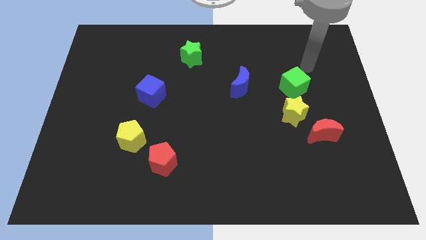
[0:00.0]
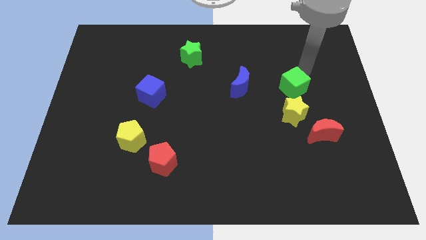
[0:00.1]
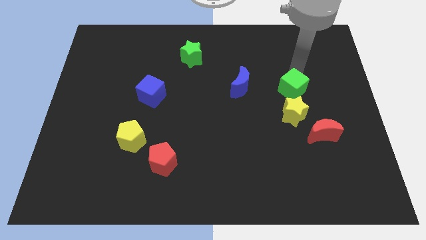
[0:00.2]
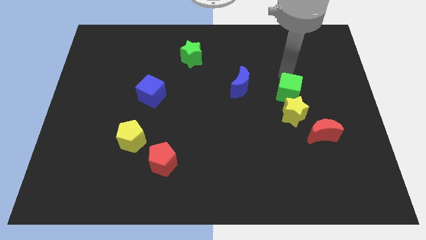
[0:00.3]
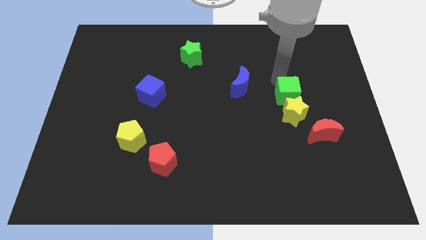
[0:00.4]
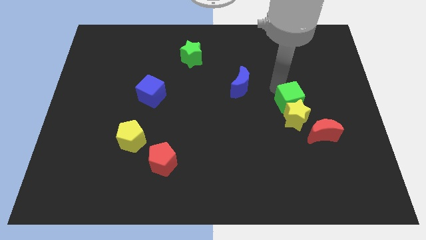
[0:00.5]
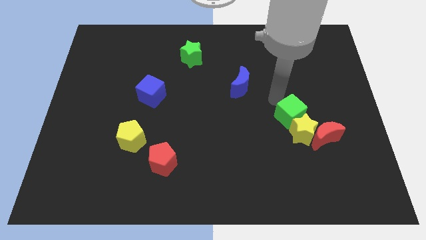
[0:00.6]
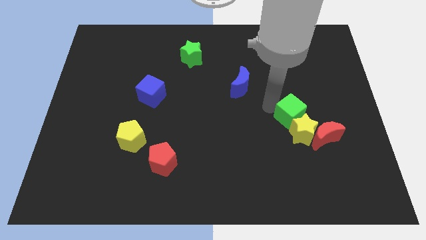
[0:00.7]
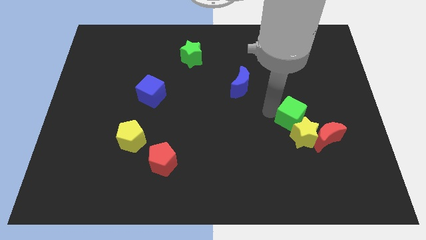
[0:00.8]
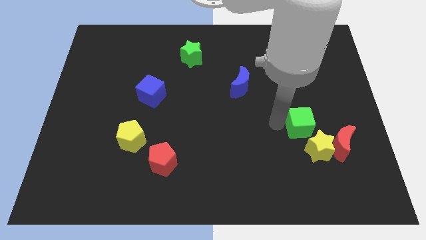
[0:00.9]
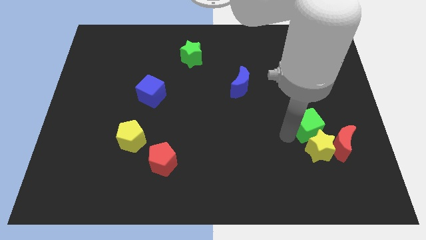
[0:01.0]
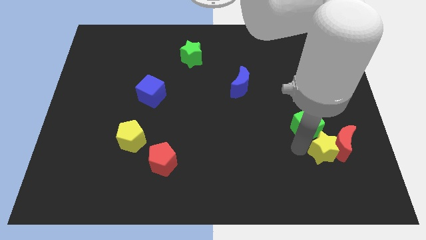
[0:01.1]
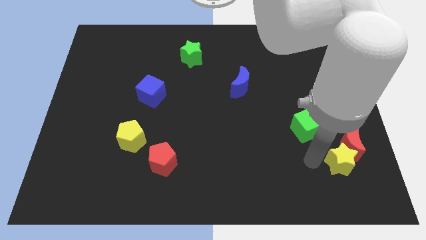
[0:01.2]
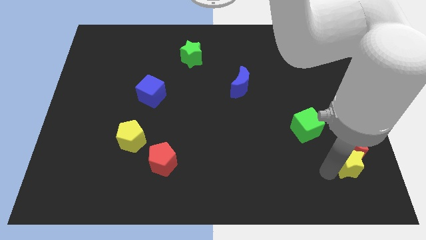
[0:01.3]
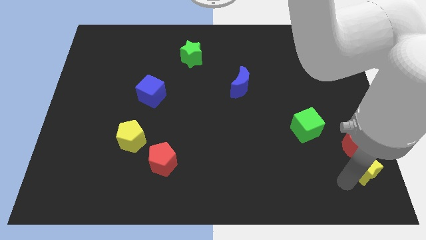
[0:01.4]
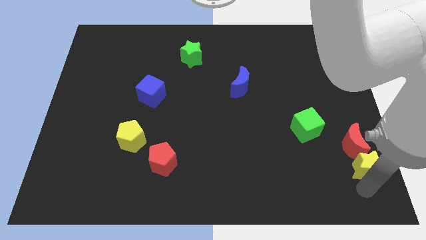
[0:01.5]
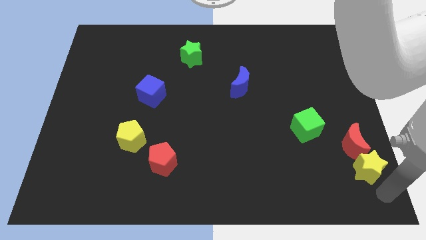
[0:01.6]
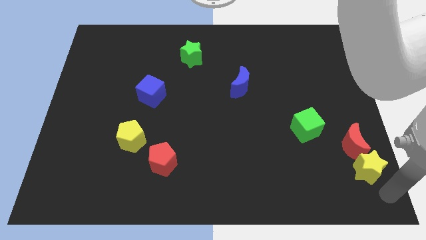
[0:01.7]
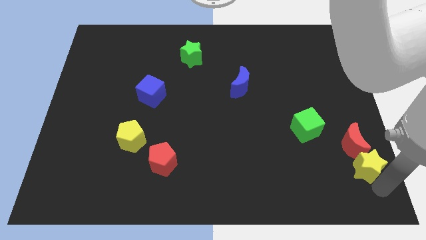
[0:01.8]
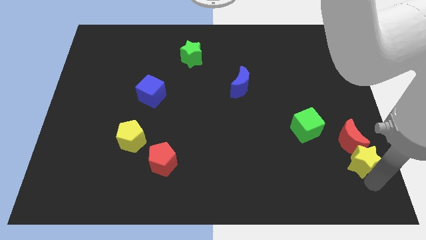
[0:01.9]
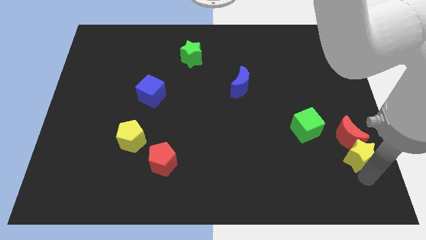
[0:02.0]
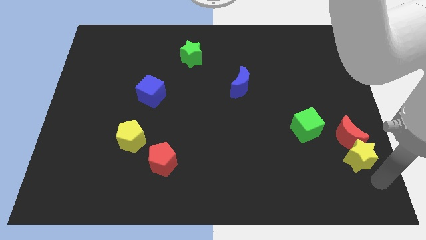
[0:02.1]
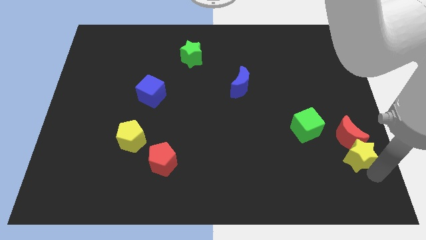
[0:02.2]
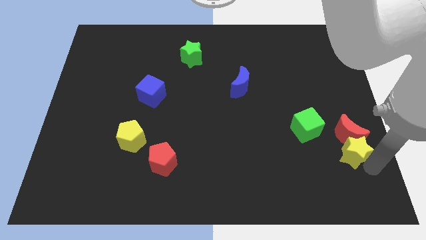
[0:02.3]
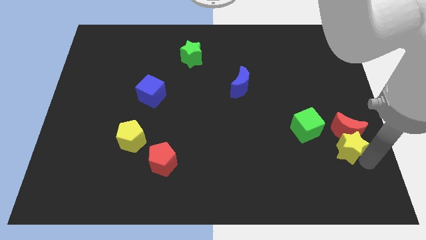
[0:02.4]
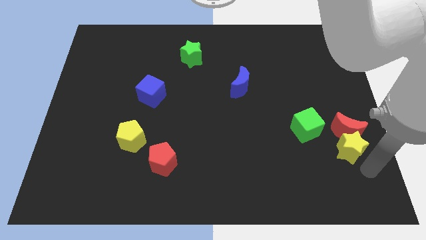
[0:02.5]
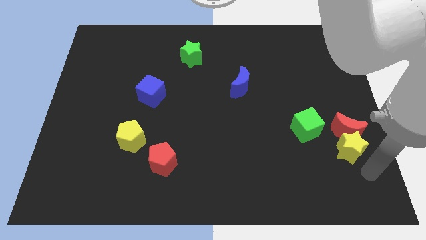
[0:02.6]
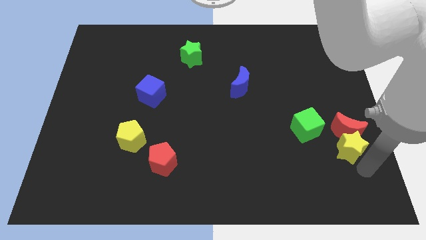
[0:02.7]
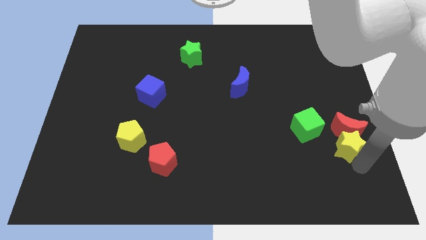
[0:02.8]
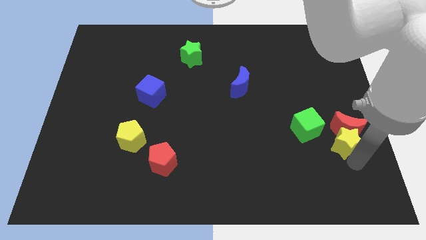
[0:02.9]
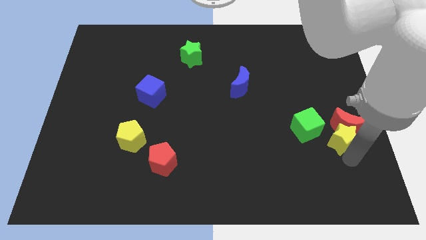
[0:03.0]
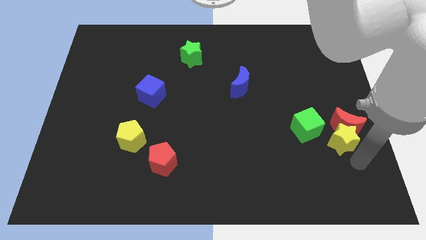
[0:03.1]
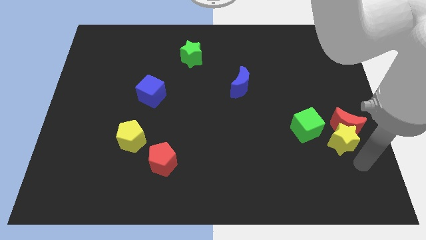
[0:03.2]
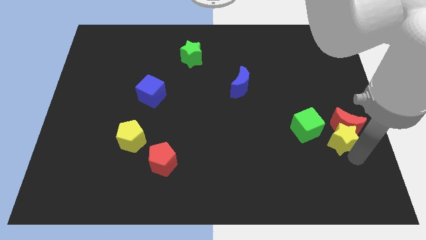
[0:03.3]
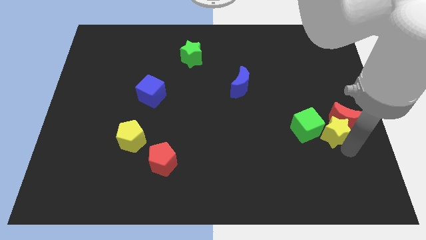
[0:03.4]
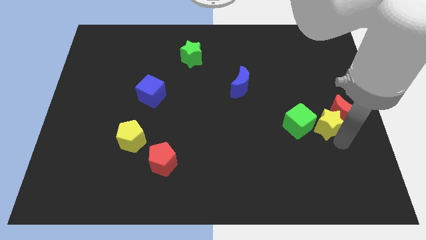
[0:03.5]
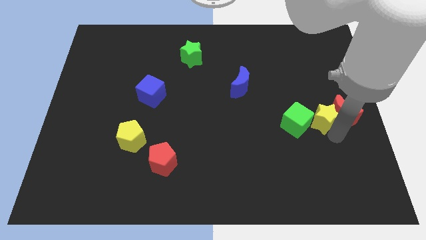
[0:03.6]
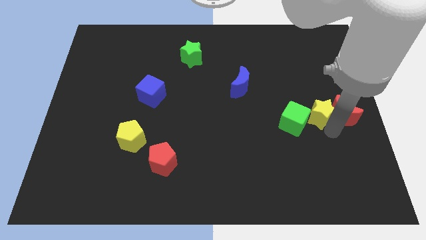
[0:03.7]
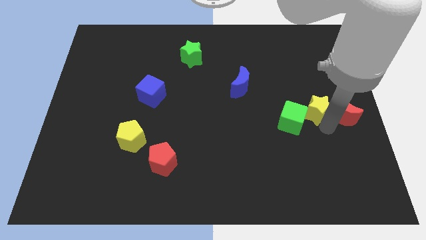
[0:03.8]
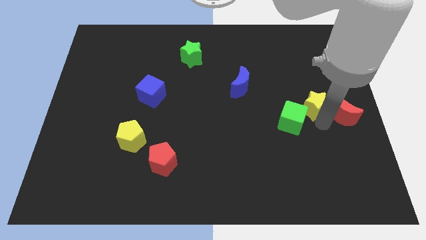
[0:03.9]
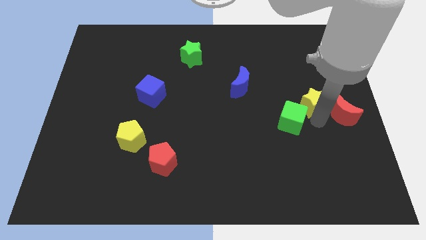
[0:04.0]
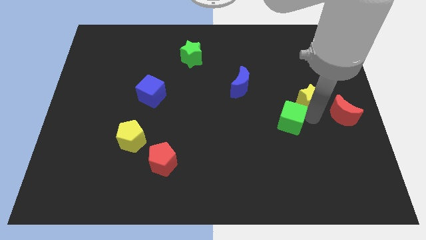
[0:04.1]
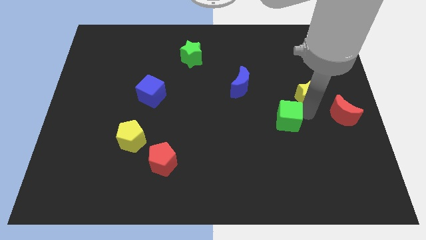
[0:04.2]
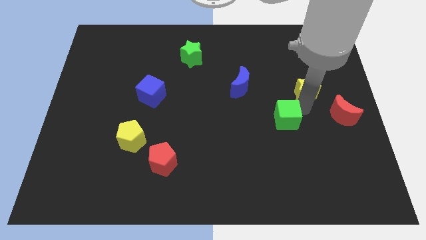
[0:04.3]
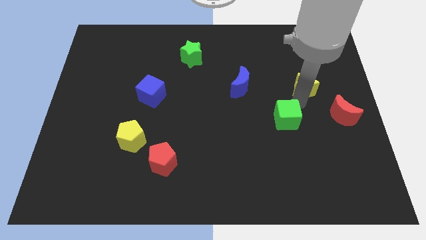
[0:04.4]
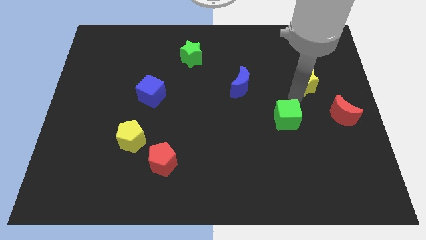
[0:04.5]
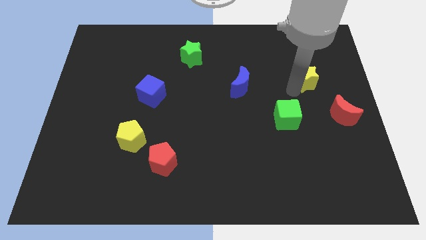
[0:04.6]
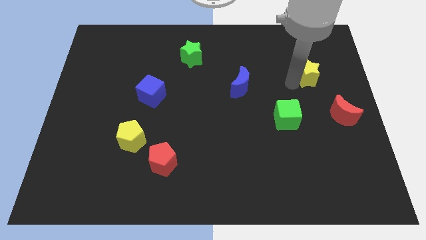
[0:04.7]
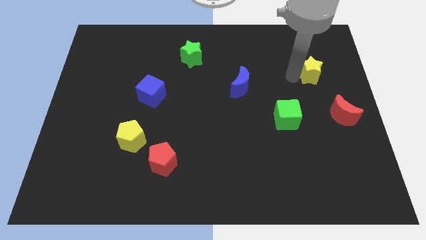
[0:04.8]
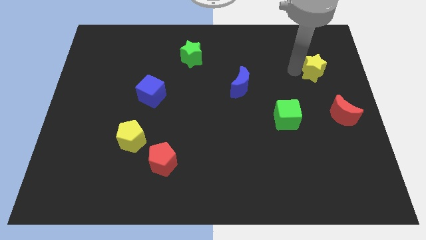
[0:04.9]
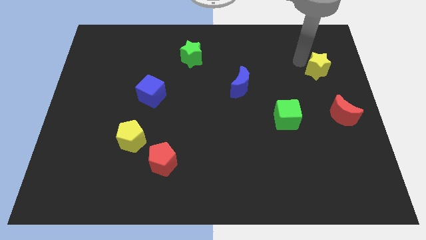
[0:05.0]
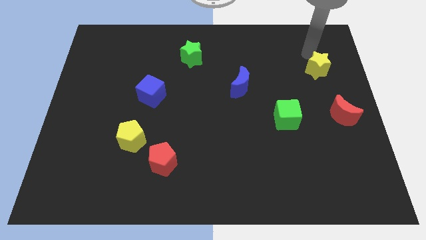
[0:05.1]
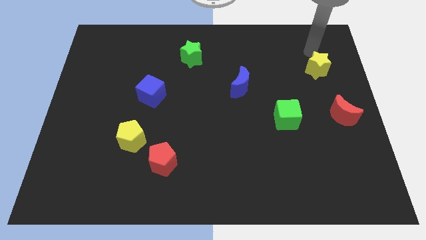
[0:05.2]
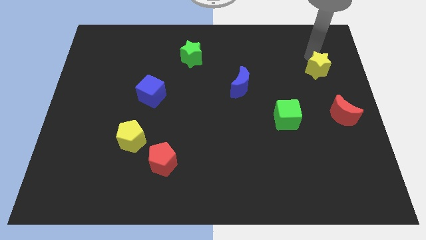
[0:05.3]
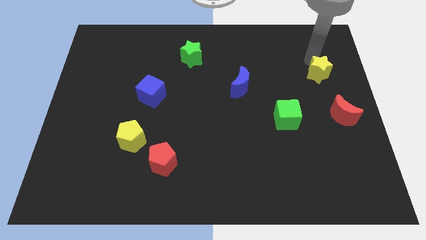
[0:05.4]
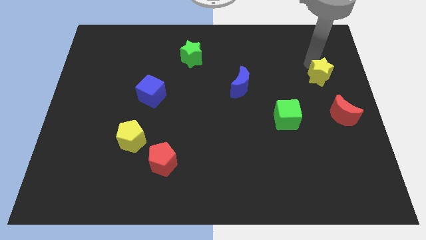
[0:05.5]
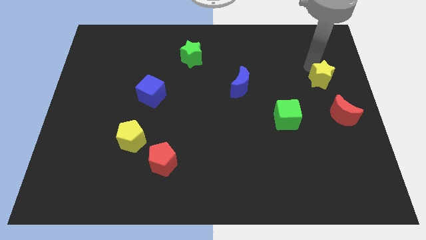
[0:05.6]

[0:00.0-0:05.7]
put the yellow star to the center right

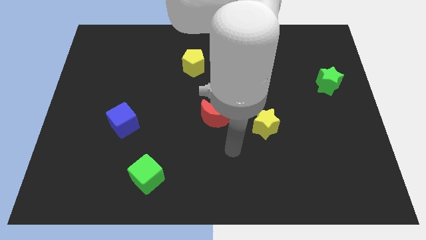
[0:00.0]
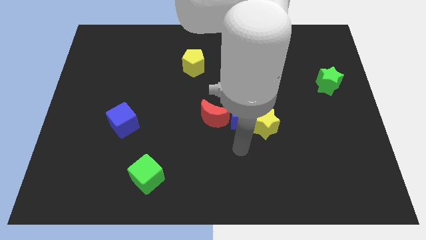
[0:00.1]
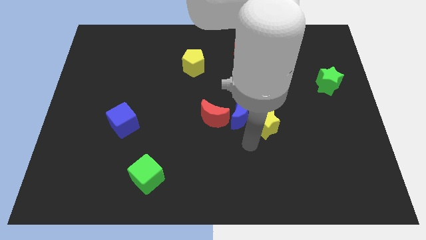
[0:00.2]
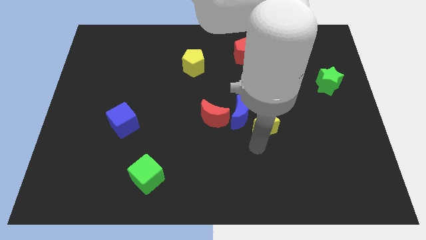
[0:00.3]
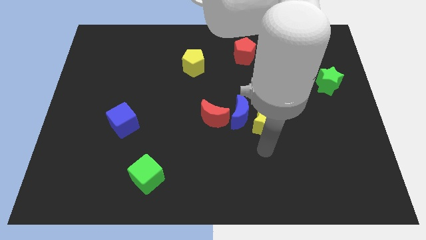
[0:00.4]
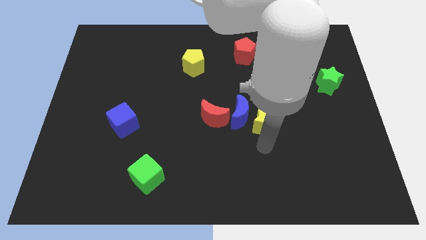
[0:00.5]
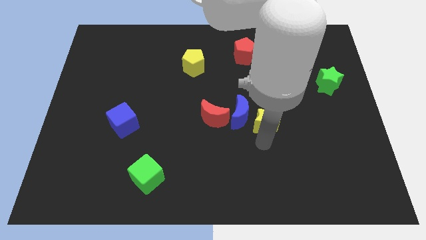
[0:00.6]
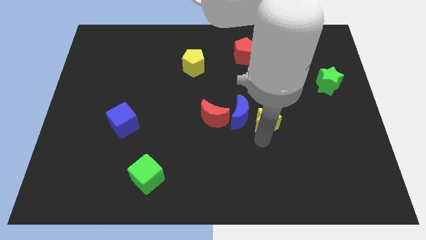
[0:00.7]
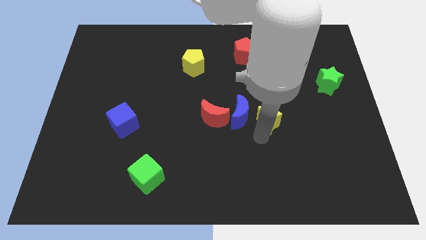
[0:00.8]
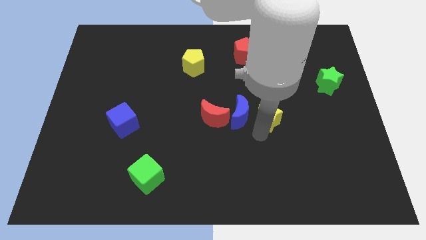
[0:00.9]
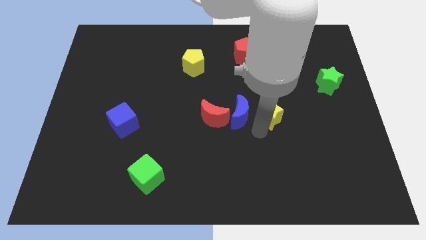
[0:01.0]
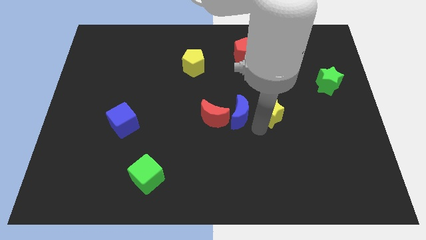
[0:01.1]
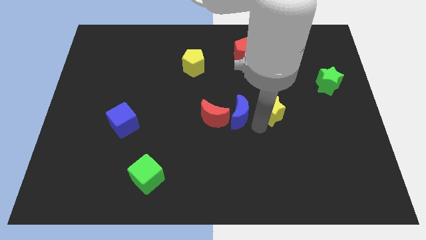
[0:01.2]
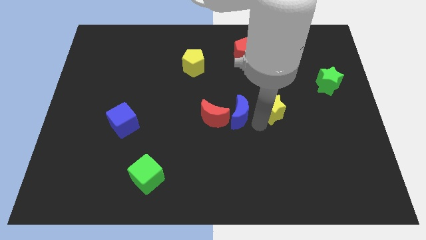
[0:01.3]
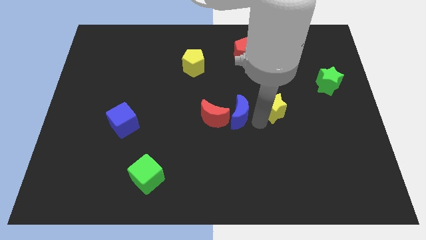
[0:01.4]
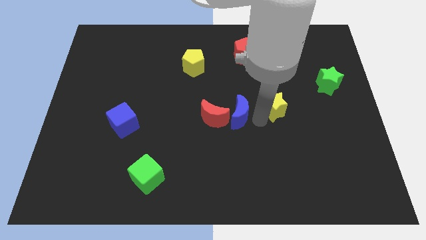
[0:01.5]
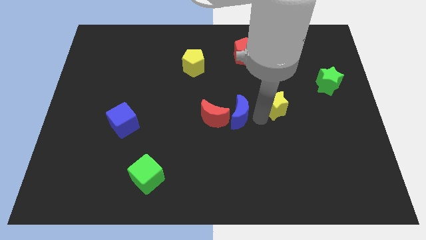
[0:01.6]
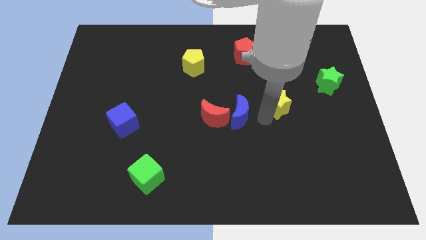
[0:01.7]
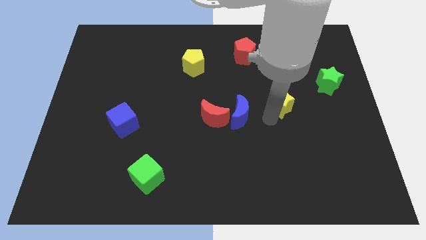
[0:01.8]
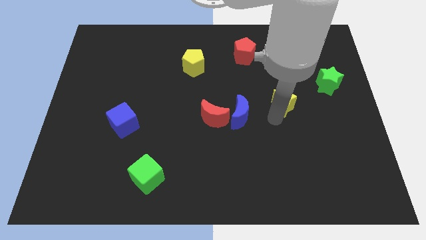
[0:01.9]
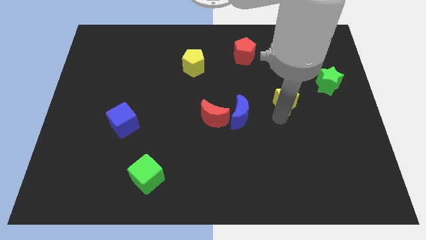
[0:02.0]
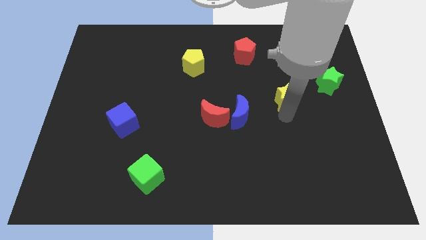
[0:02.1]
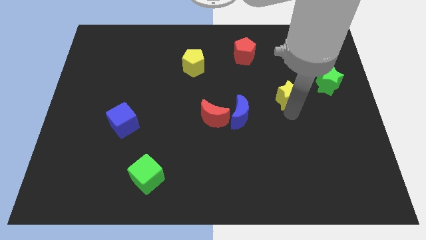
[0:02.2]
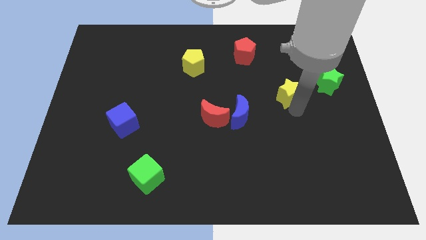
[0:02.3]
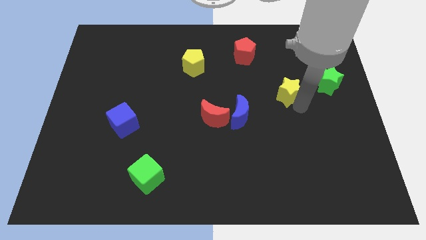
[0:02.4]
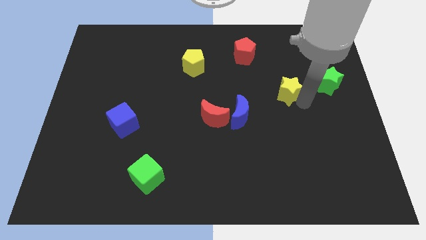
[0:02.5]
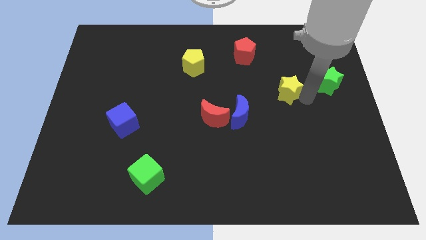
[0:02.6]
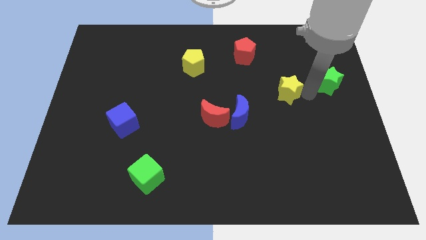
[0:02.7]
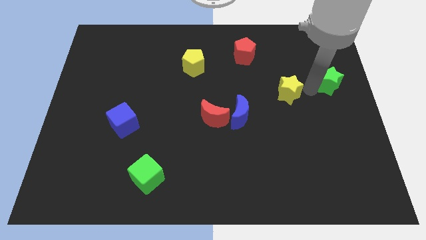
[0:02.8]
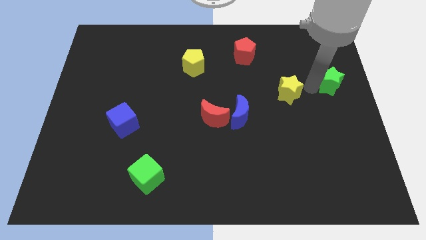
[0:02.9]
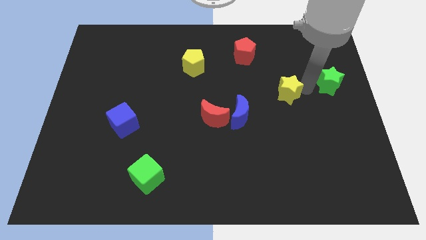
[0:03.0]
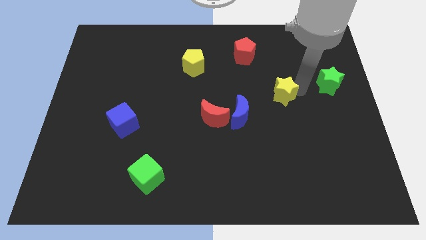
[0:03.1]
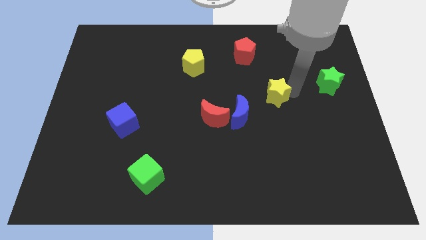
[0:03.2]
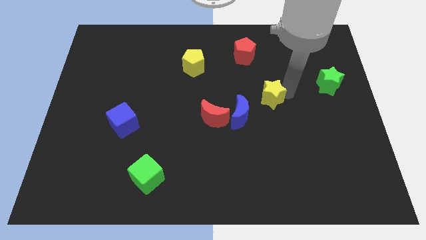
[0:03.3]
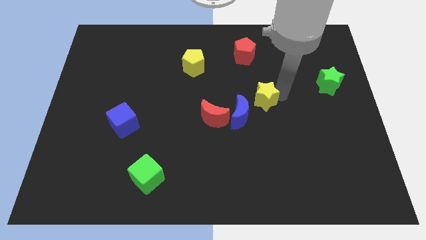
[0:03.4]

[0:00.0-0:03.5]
put the yellow star to the center
